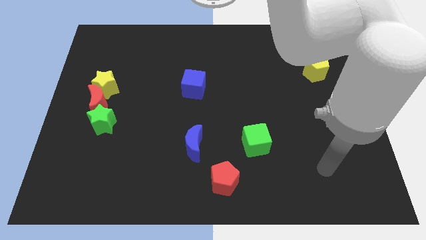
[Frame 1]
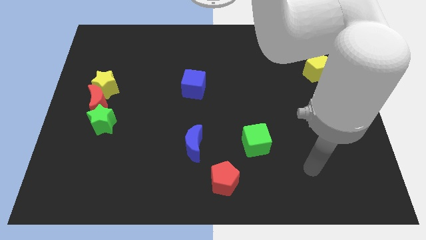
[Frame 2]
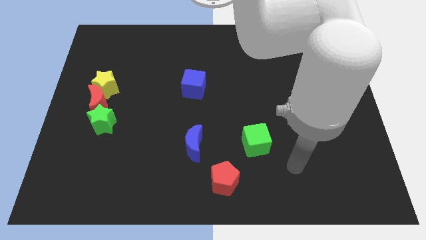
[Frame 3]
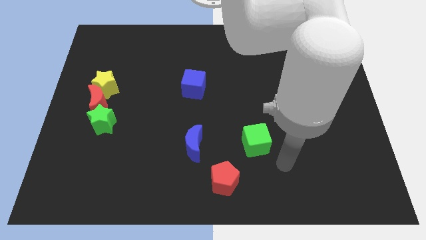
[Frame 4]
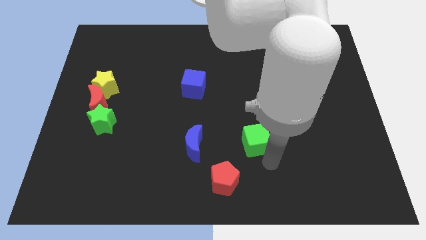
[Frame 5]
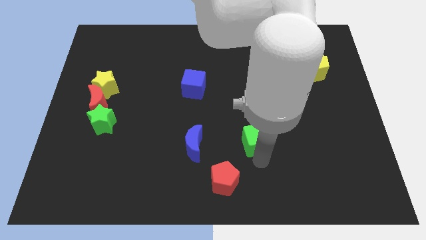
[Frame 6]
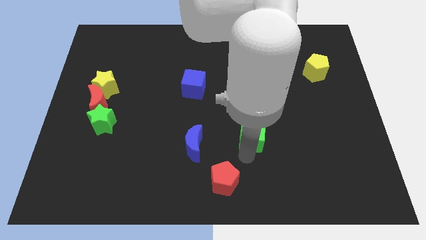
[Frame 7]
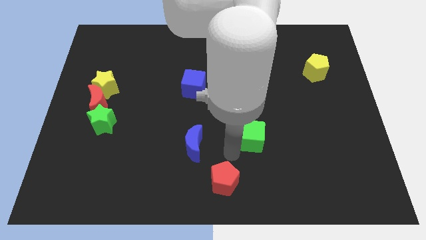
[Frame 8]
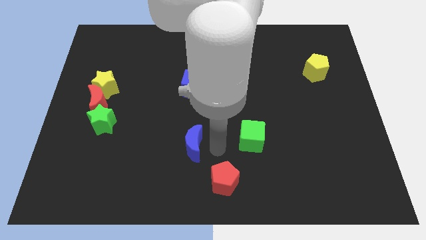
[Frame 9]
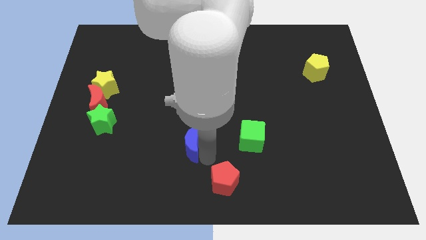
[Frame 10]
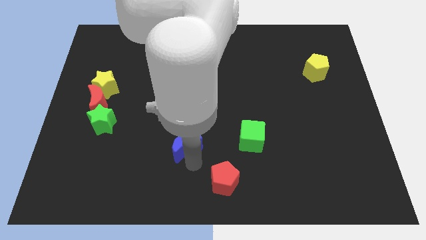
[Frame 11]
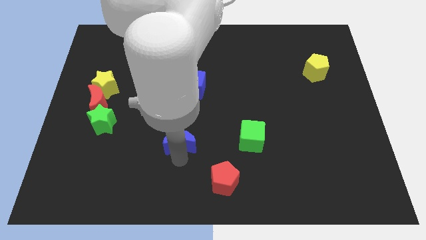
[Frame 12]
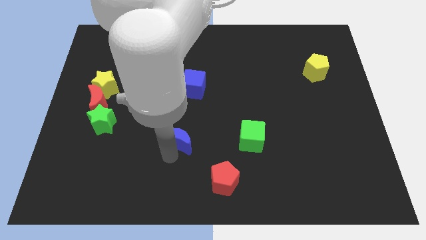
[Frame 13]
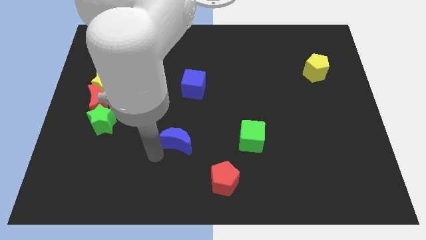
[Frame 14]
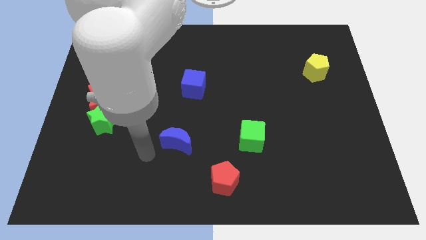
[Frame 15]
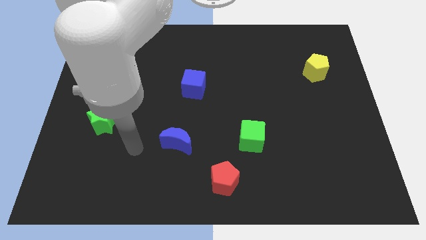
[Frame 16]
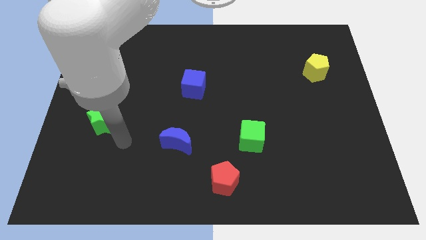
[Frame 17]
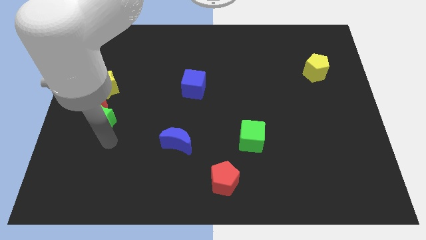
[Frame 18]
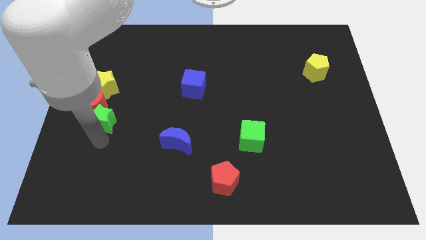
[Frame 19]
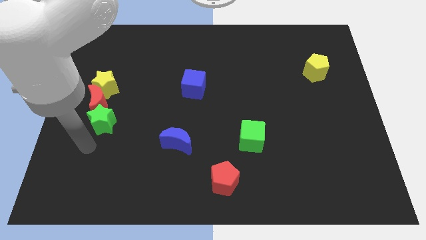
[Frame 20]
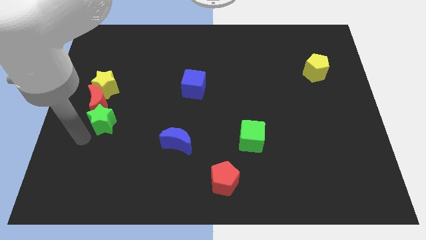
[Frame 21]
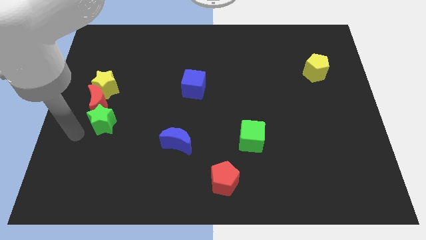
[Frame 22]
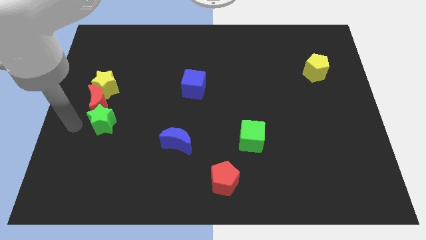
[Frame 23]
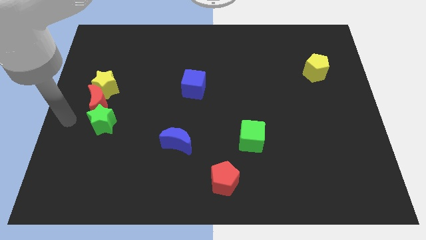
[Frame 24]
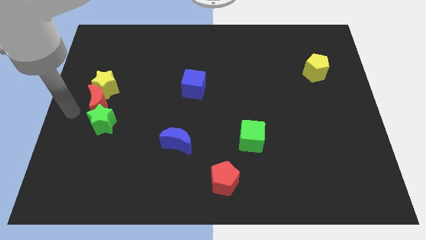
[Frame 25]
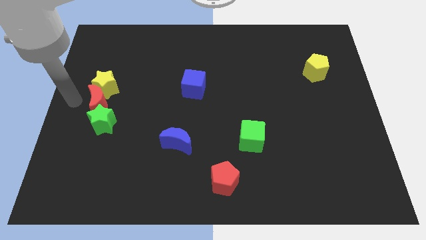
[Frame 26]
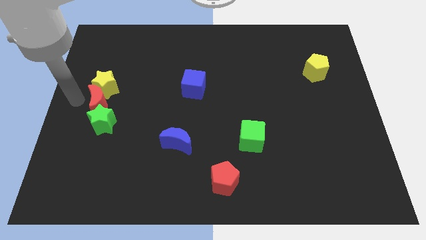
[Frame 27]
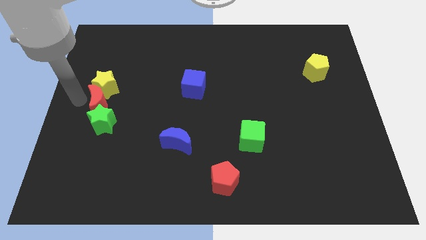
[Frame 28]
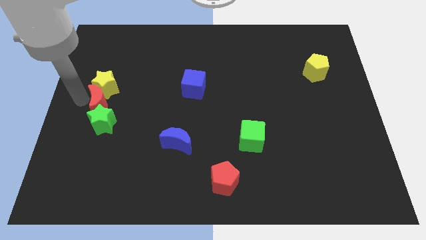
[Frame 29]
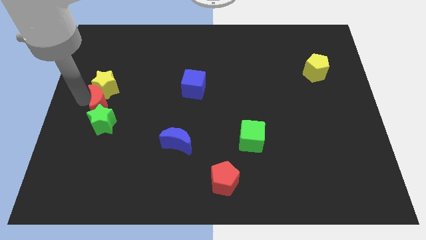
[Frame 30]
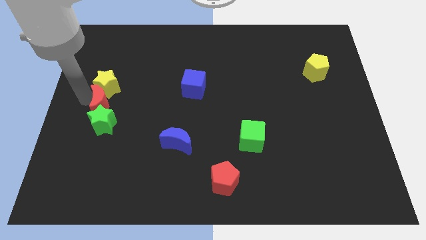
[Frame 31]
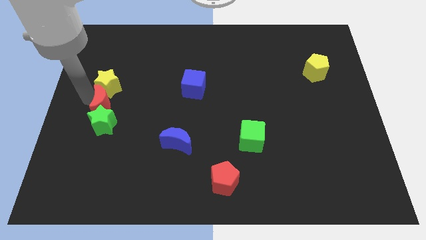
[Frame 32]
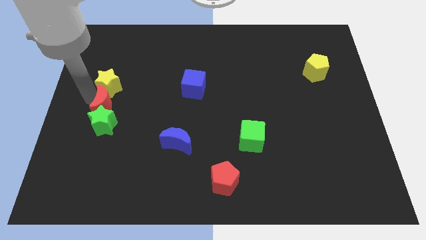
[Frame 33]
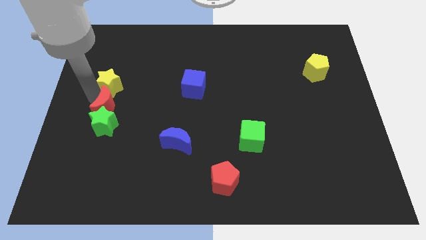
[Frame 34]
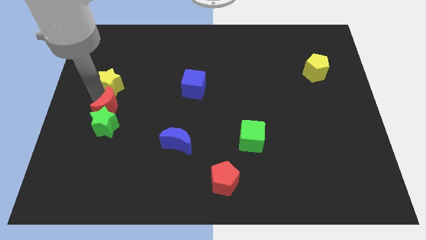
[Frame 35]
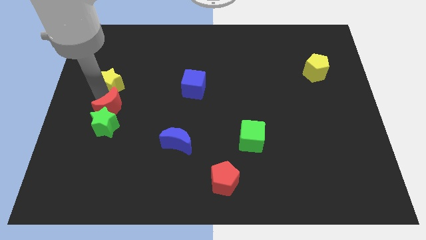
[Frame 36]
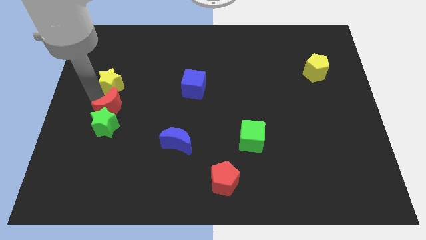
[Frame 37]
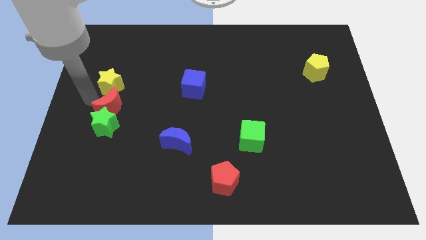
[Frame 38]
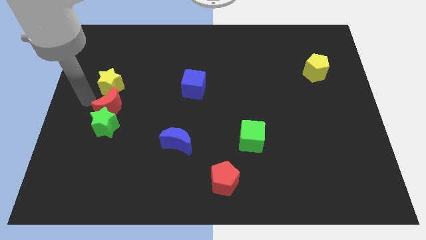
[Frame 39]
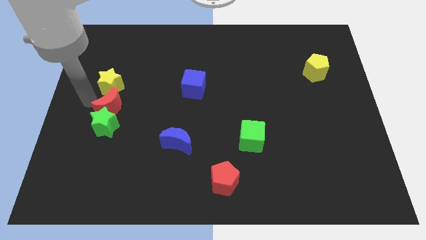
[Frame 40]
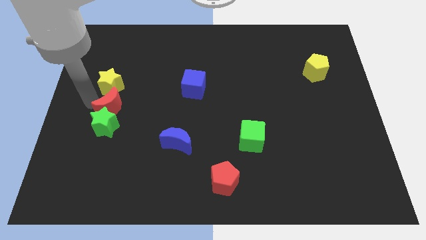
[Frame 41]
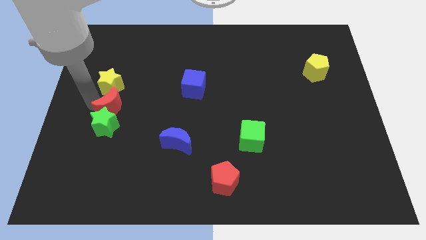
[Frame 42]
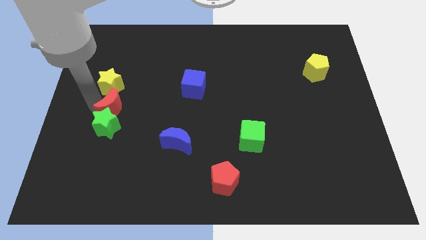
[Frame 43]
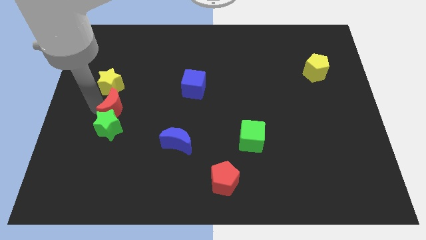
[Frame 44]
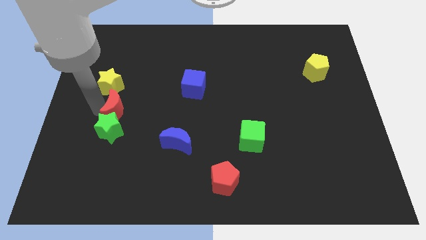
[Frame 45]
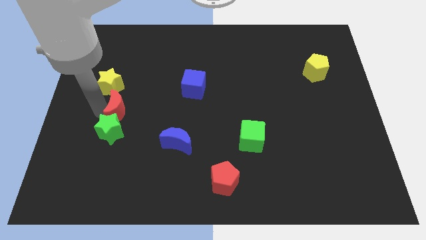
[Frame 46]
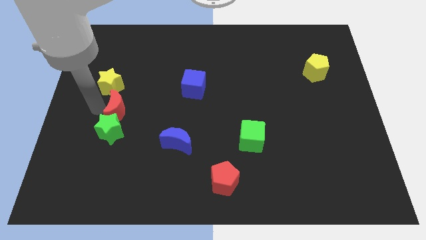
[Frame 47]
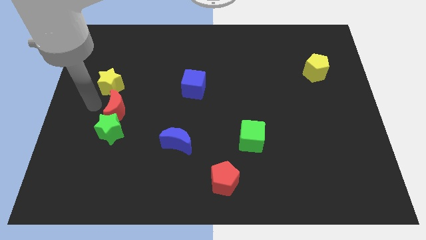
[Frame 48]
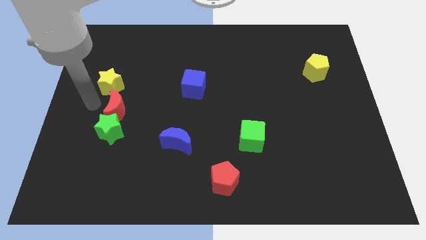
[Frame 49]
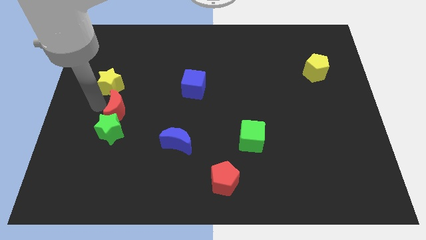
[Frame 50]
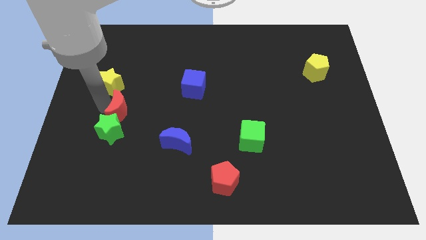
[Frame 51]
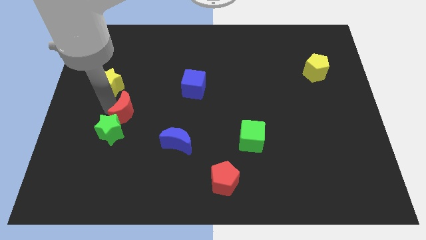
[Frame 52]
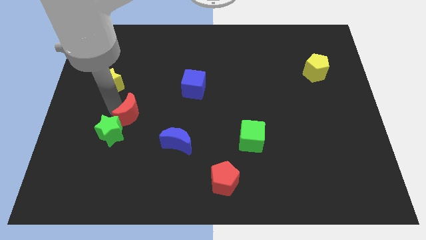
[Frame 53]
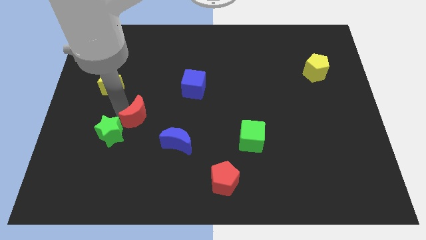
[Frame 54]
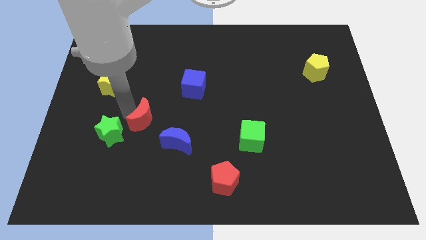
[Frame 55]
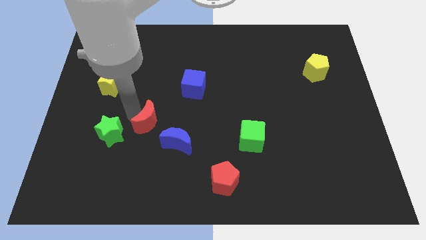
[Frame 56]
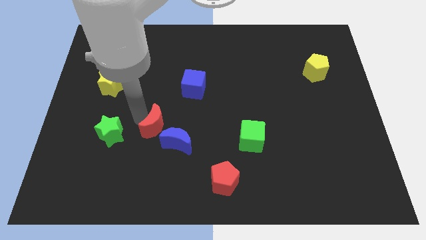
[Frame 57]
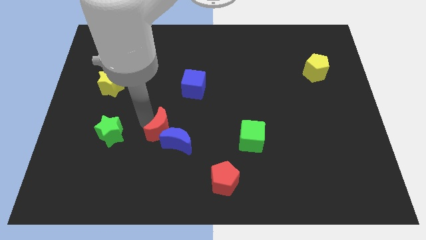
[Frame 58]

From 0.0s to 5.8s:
slide the red moon towards the blue moon

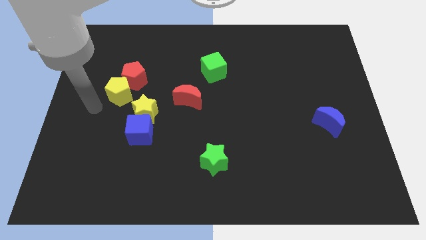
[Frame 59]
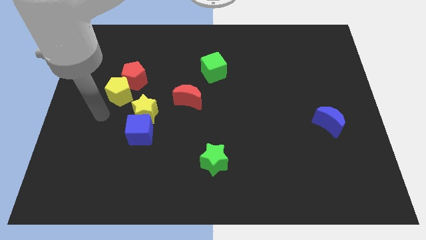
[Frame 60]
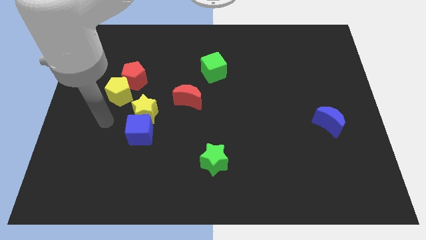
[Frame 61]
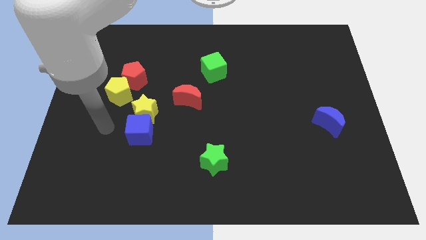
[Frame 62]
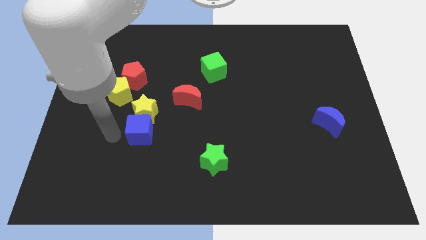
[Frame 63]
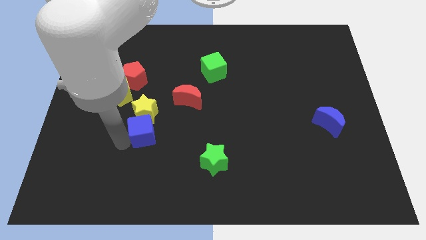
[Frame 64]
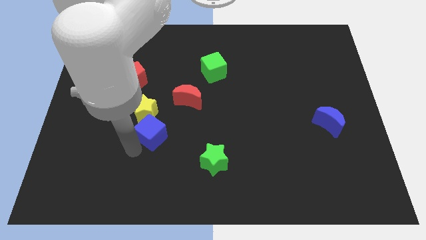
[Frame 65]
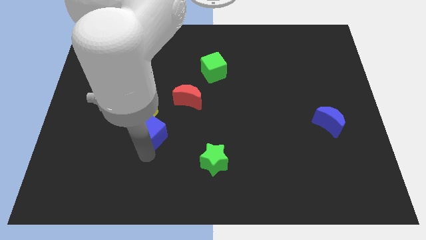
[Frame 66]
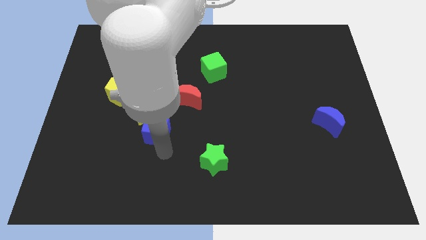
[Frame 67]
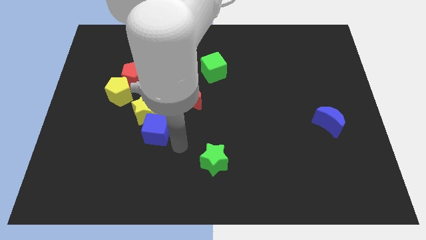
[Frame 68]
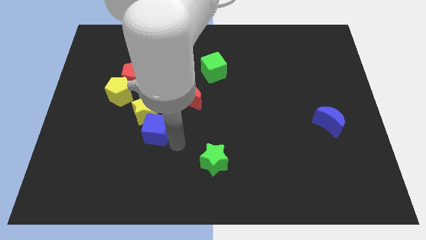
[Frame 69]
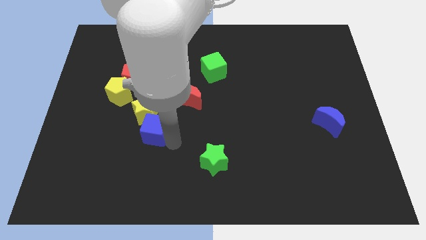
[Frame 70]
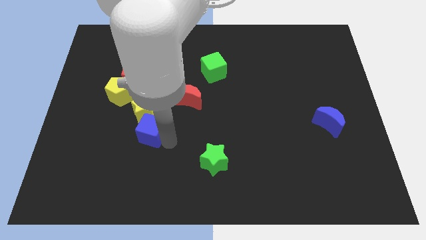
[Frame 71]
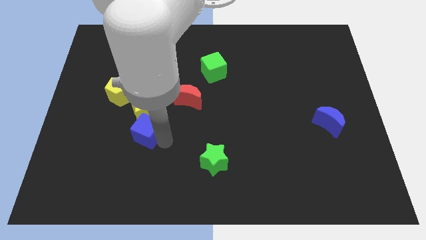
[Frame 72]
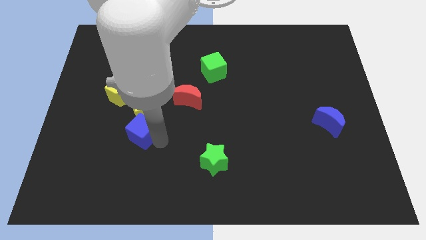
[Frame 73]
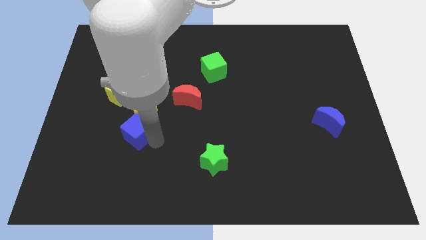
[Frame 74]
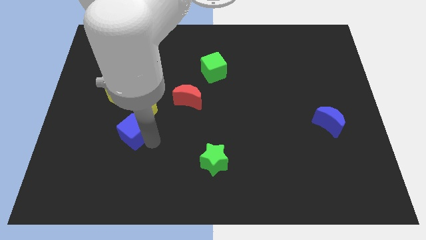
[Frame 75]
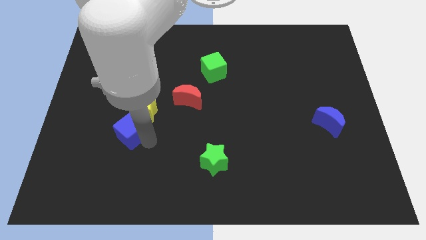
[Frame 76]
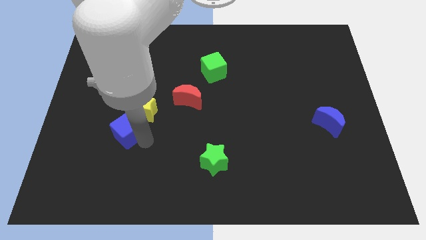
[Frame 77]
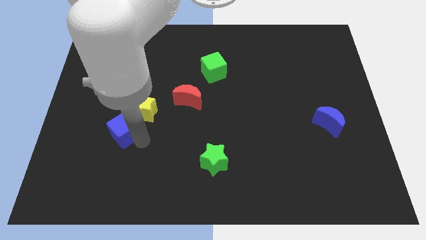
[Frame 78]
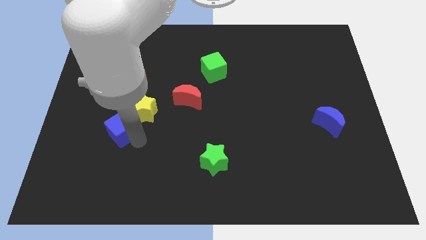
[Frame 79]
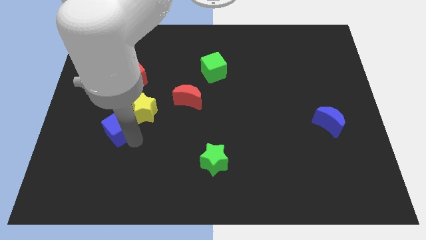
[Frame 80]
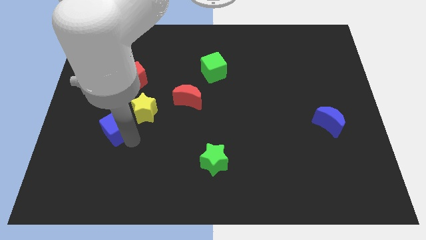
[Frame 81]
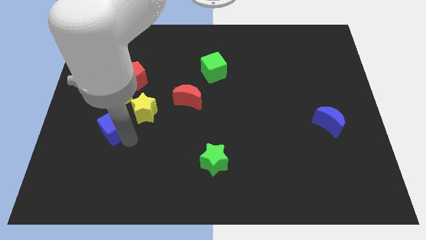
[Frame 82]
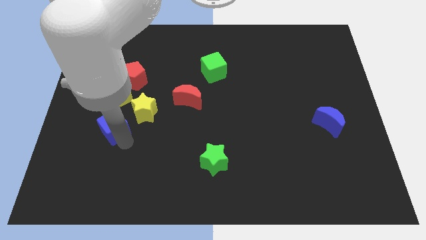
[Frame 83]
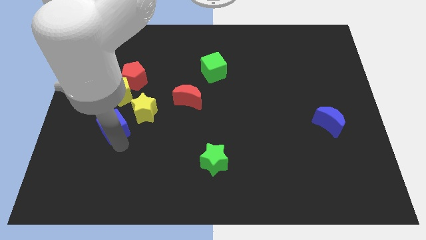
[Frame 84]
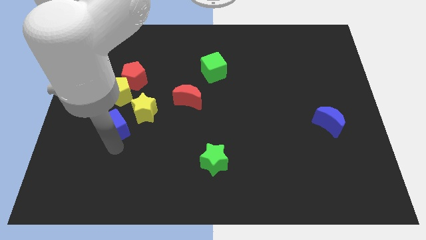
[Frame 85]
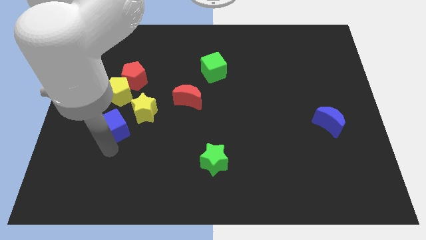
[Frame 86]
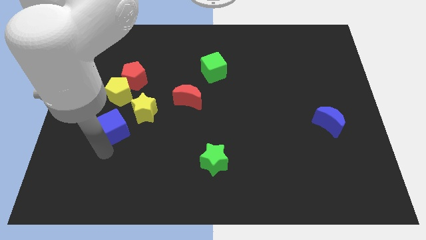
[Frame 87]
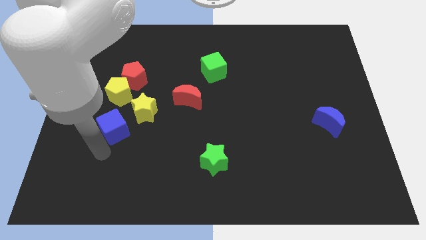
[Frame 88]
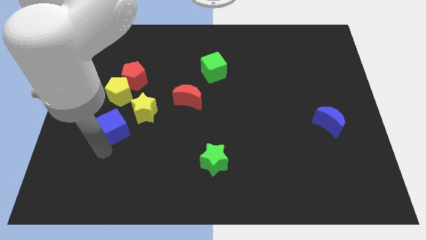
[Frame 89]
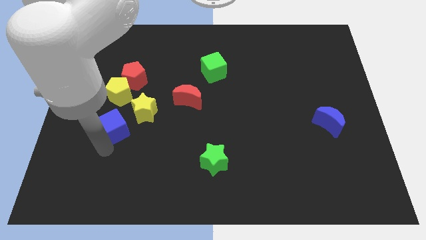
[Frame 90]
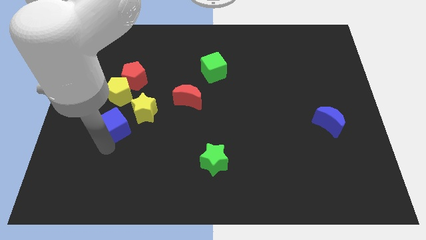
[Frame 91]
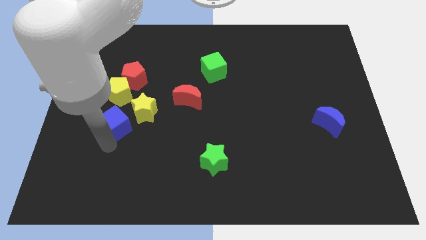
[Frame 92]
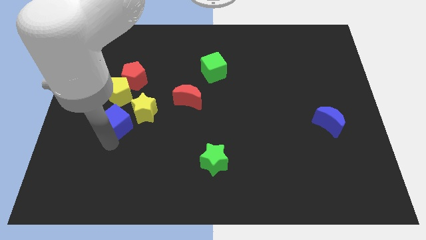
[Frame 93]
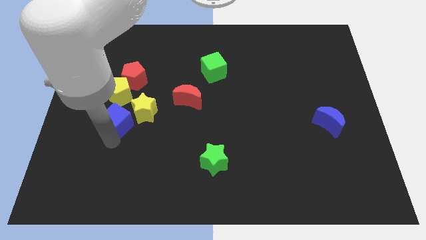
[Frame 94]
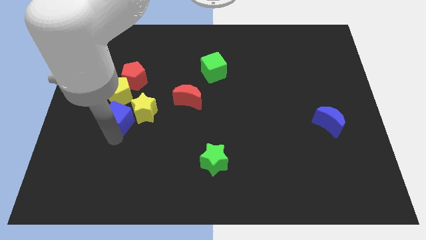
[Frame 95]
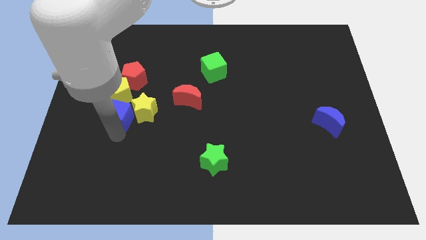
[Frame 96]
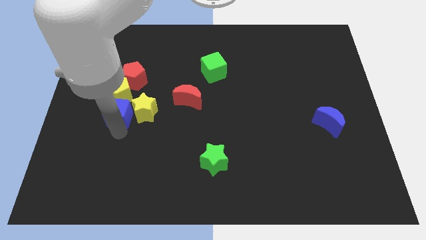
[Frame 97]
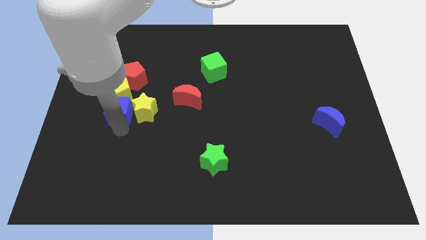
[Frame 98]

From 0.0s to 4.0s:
move the blue cube towards the yellow pentagon
